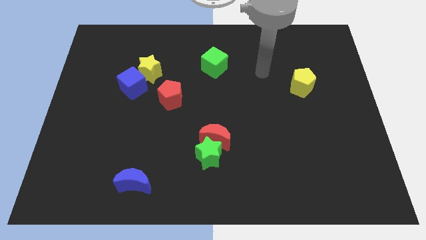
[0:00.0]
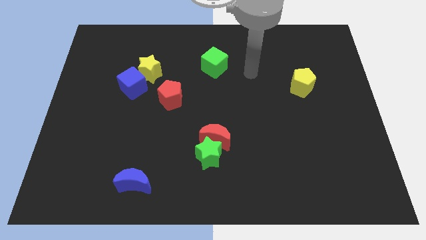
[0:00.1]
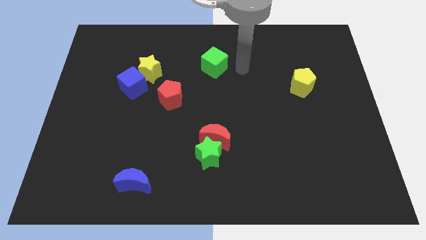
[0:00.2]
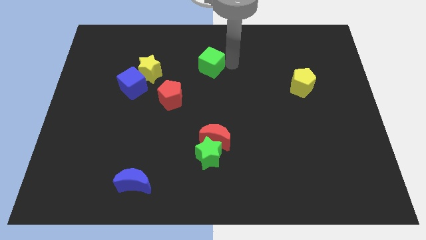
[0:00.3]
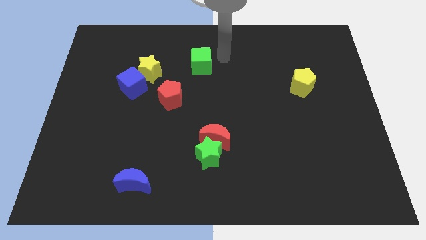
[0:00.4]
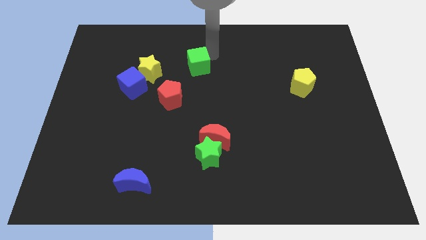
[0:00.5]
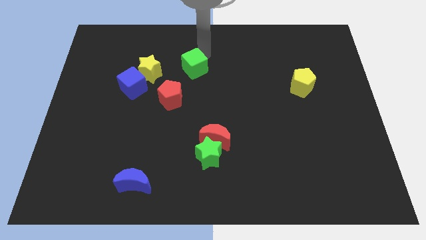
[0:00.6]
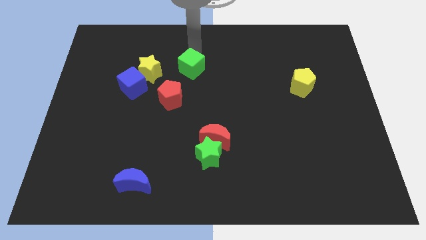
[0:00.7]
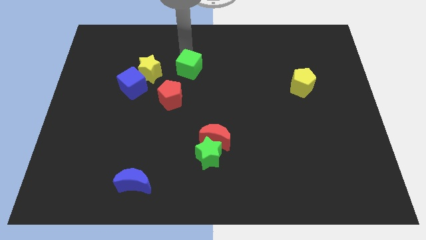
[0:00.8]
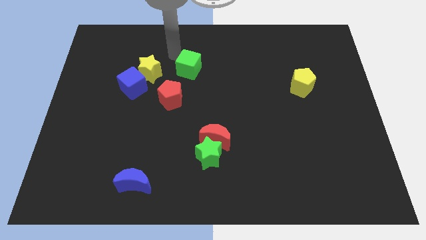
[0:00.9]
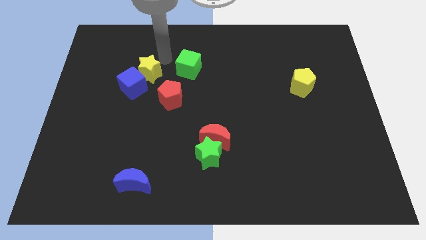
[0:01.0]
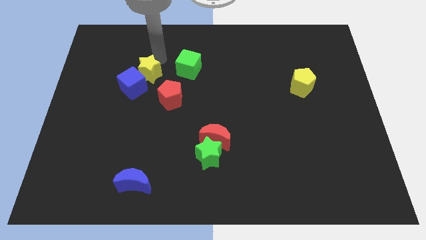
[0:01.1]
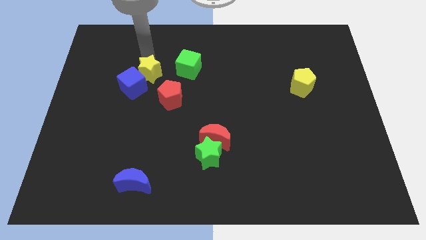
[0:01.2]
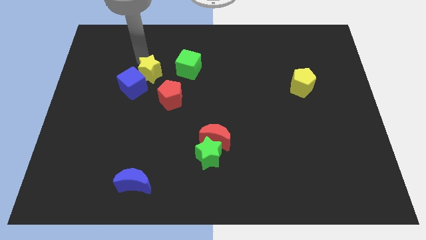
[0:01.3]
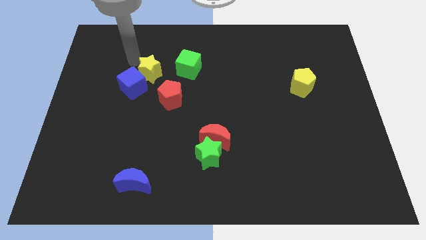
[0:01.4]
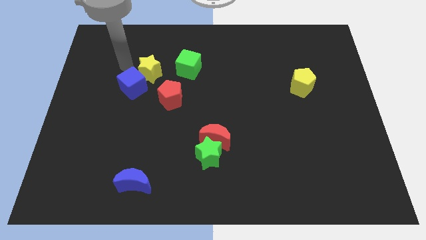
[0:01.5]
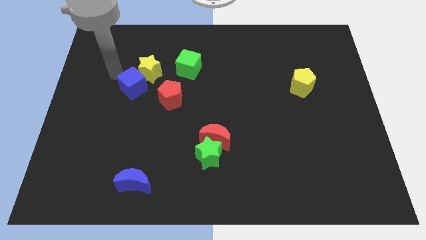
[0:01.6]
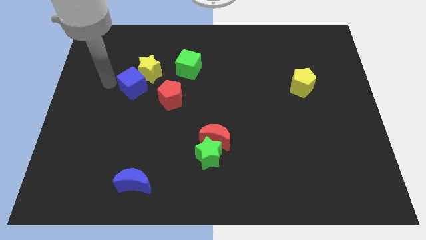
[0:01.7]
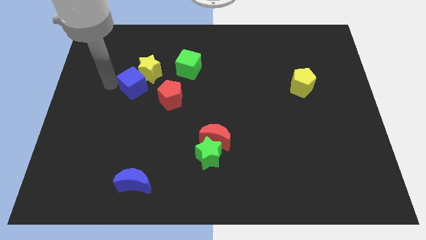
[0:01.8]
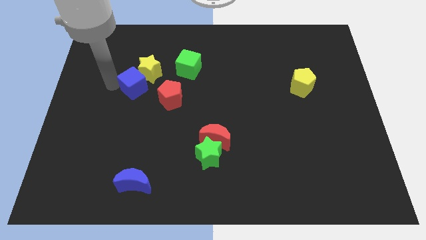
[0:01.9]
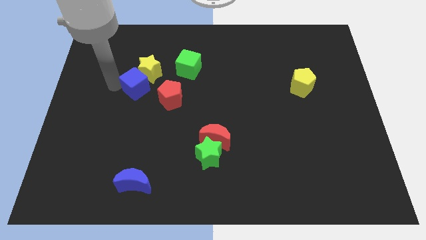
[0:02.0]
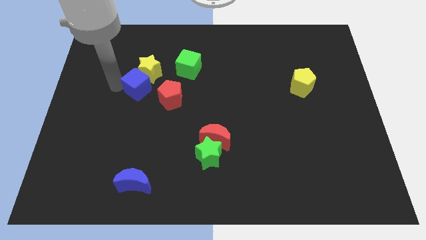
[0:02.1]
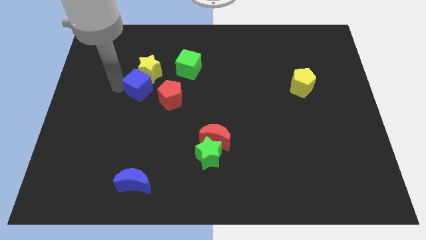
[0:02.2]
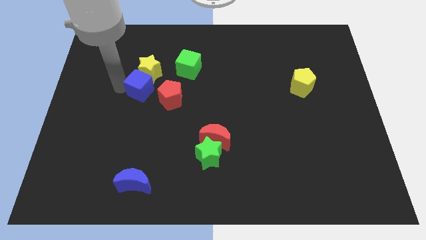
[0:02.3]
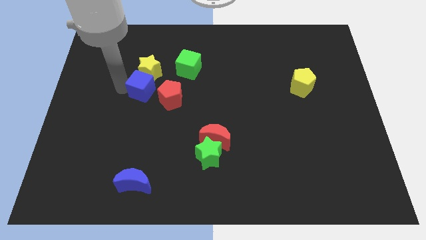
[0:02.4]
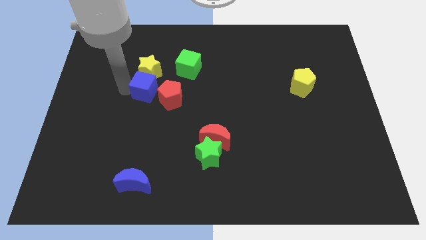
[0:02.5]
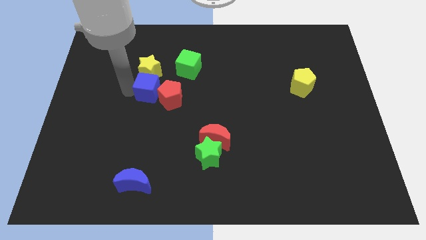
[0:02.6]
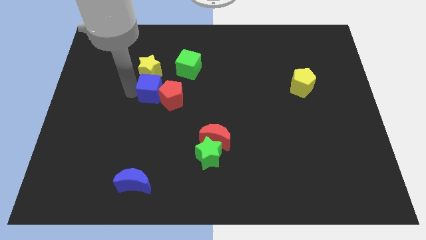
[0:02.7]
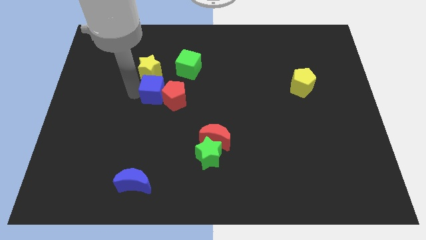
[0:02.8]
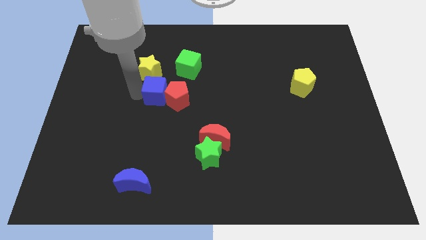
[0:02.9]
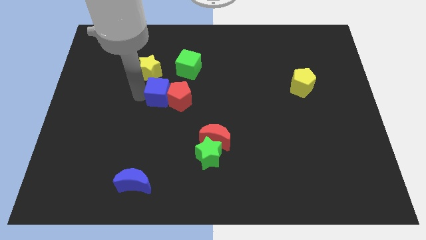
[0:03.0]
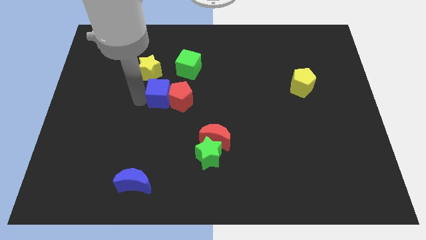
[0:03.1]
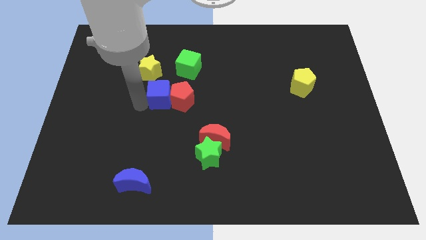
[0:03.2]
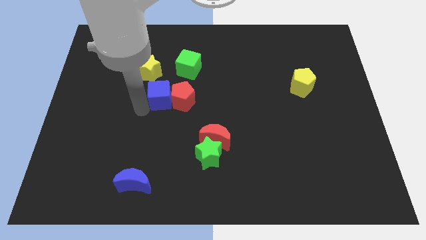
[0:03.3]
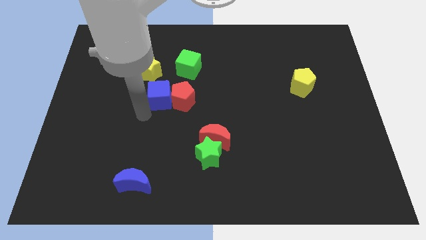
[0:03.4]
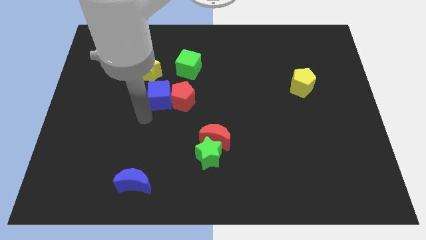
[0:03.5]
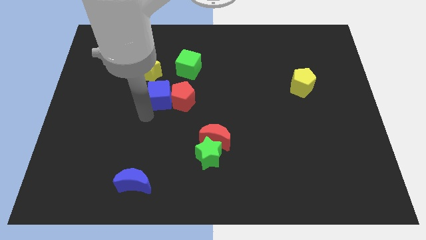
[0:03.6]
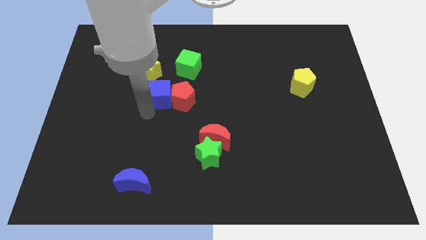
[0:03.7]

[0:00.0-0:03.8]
move the blue cube right a bit

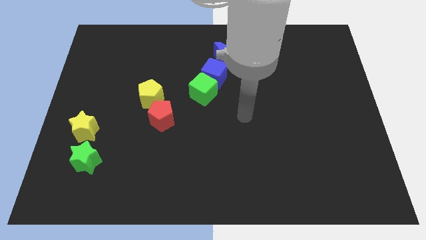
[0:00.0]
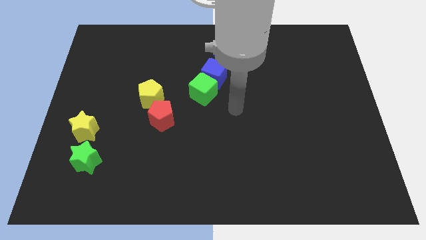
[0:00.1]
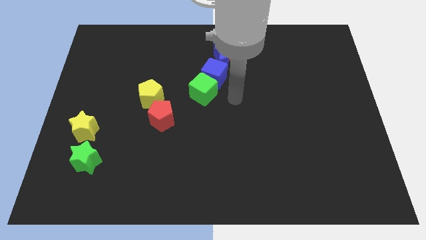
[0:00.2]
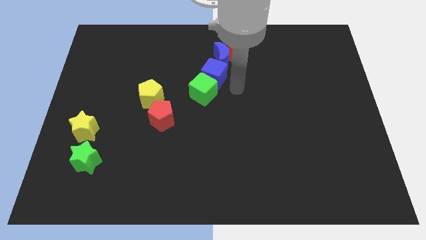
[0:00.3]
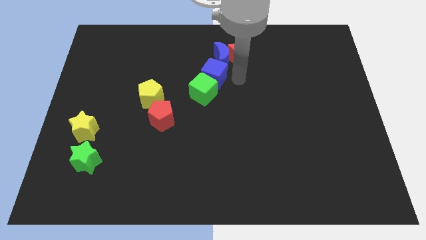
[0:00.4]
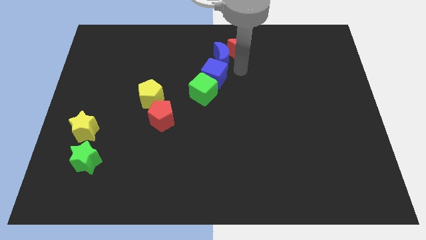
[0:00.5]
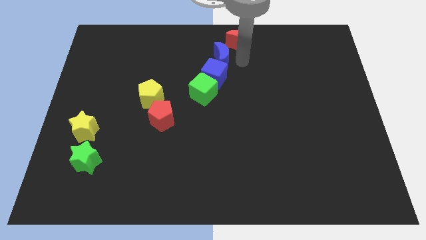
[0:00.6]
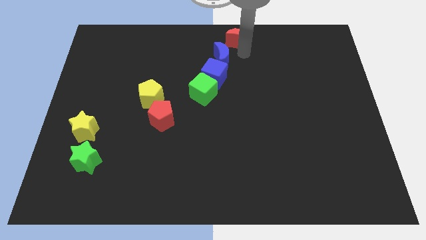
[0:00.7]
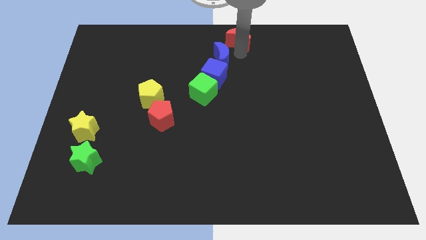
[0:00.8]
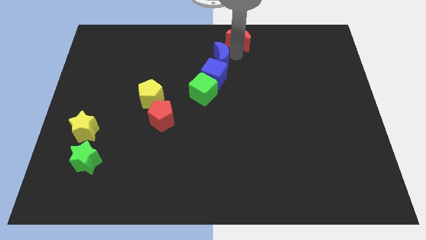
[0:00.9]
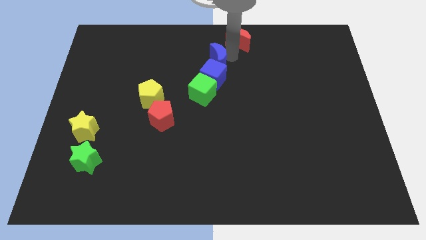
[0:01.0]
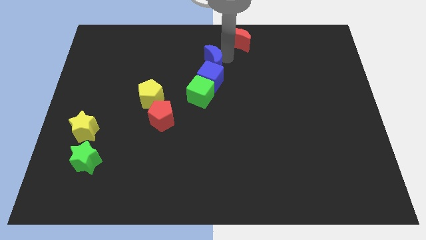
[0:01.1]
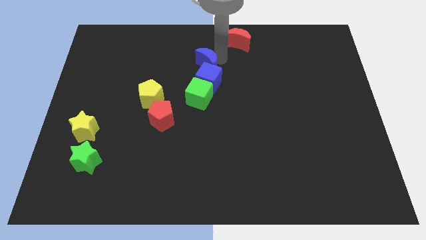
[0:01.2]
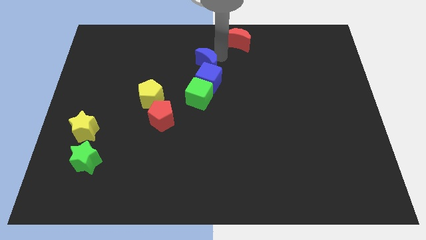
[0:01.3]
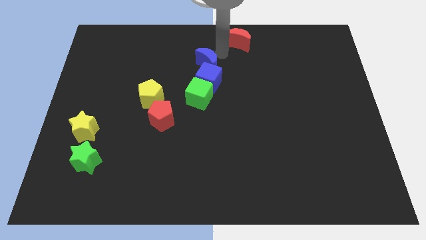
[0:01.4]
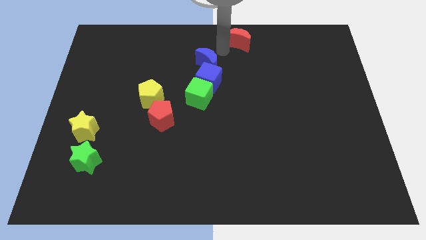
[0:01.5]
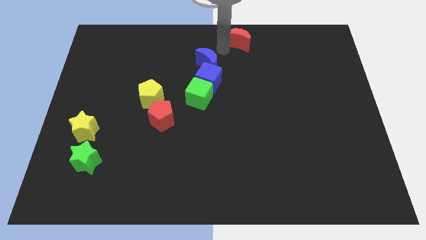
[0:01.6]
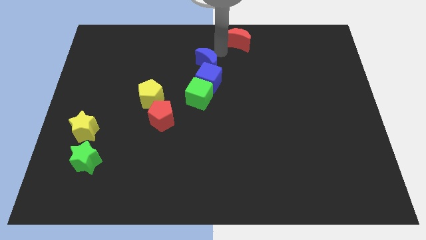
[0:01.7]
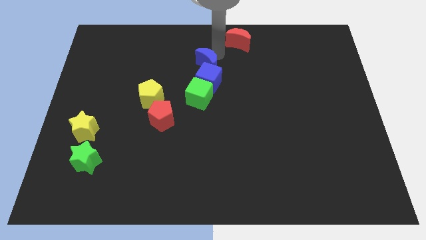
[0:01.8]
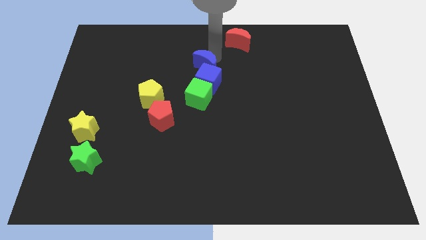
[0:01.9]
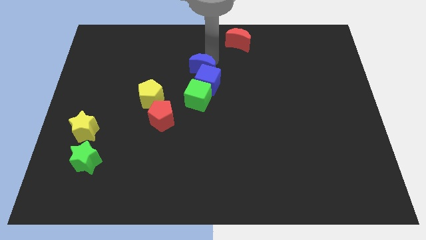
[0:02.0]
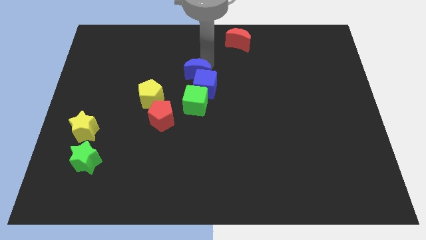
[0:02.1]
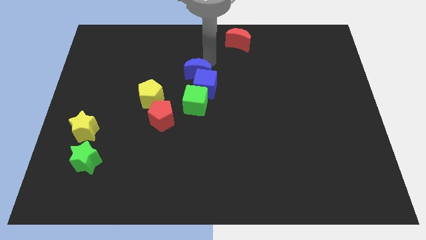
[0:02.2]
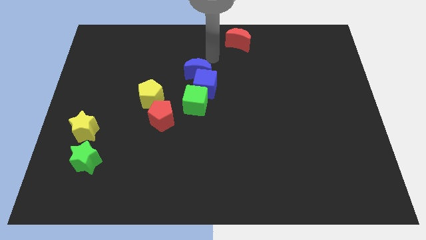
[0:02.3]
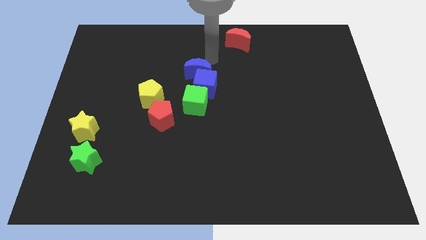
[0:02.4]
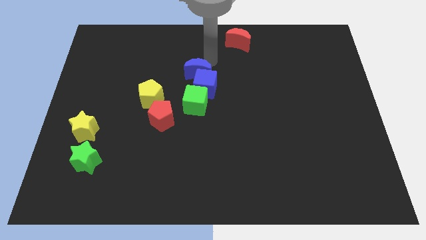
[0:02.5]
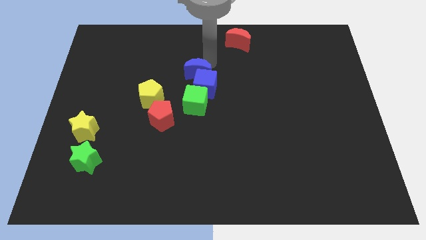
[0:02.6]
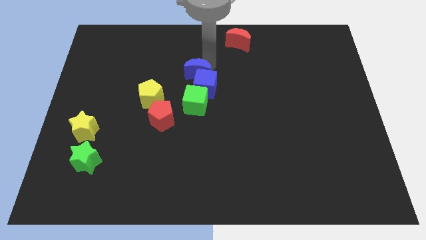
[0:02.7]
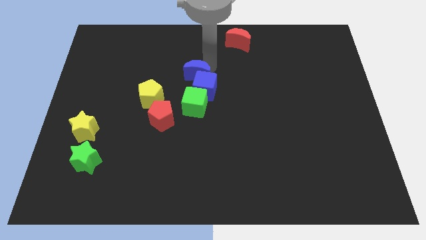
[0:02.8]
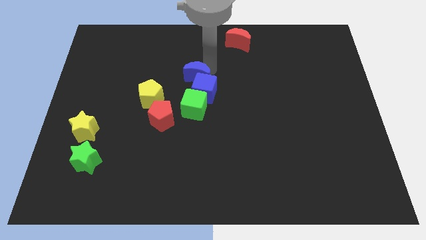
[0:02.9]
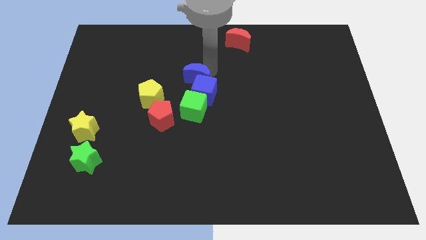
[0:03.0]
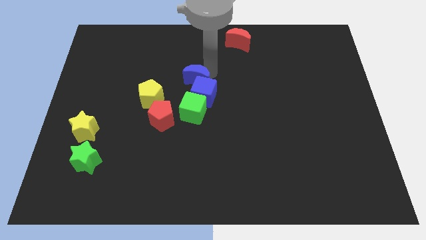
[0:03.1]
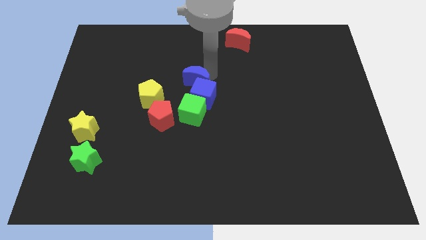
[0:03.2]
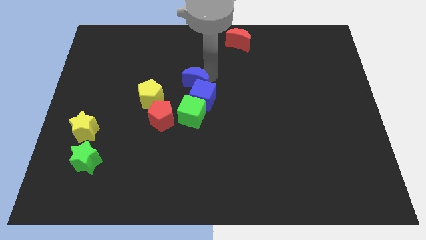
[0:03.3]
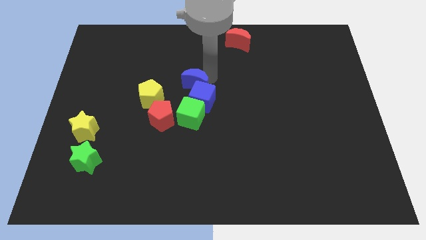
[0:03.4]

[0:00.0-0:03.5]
slide the blue moon a bit down

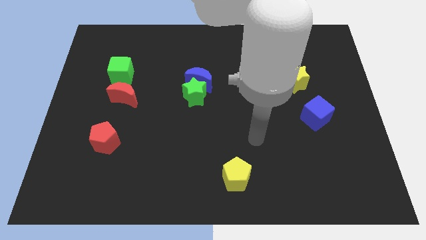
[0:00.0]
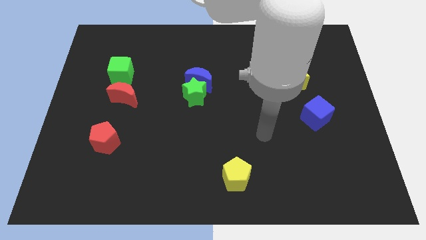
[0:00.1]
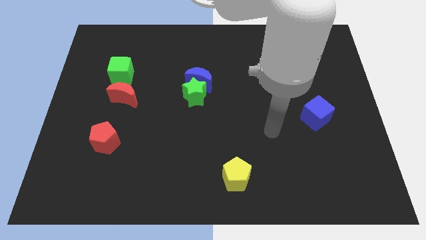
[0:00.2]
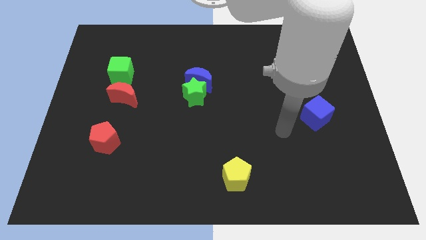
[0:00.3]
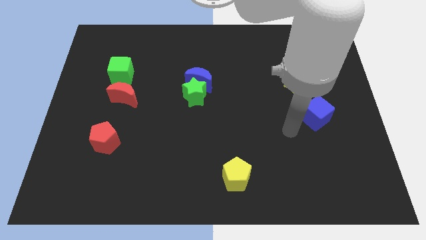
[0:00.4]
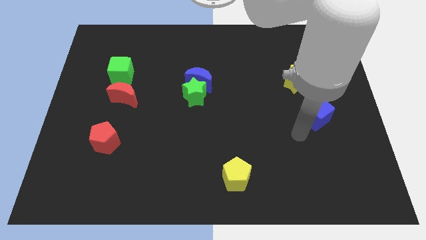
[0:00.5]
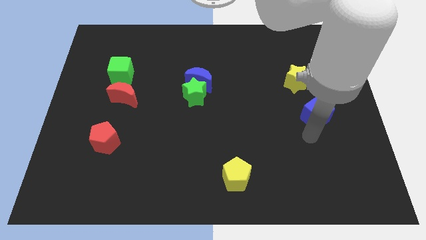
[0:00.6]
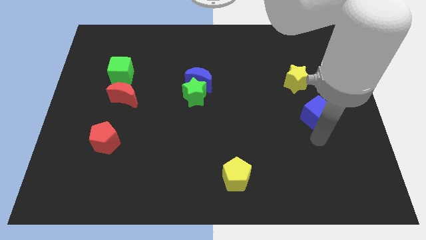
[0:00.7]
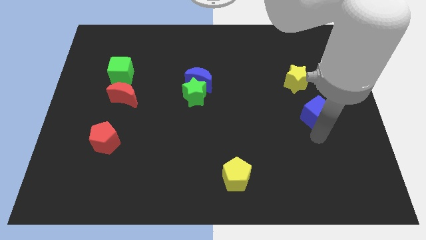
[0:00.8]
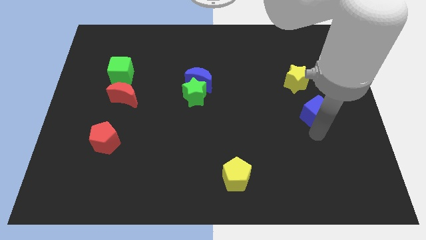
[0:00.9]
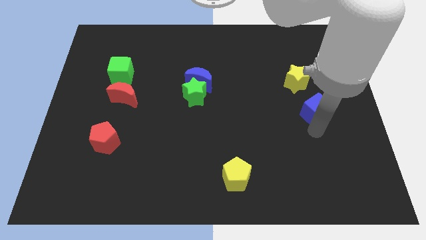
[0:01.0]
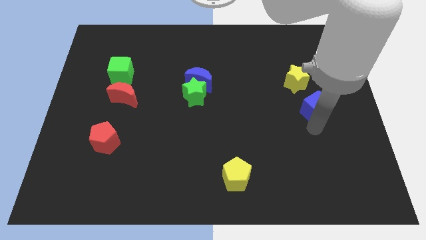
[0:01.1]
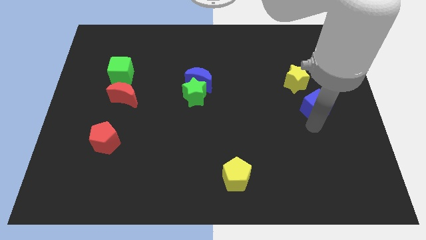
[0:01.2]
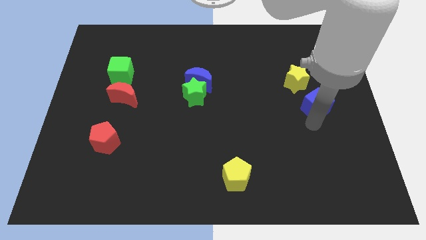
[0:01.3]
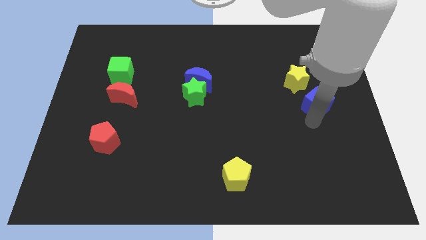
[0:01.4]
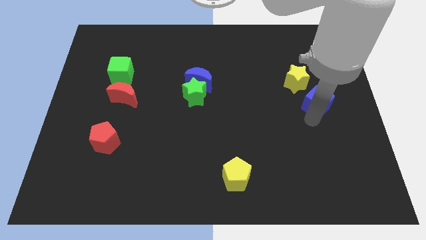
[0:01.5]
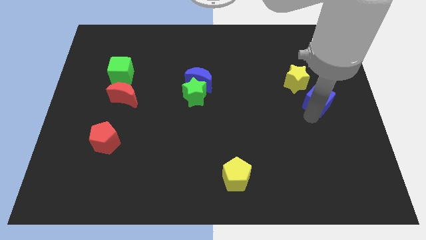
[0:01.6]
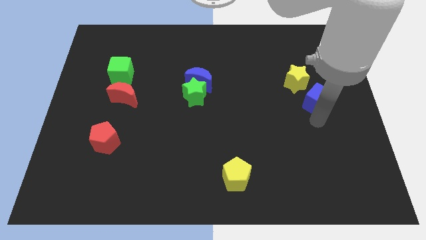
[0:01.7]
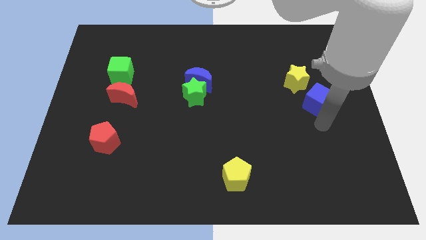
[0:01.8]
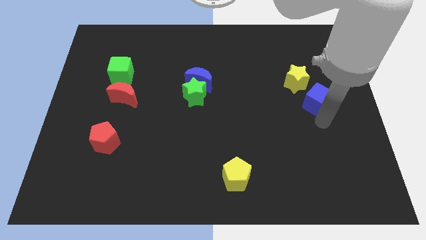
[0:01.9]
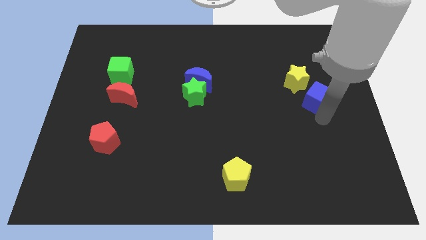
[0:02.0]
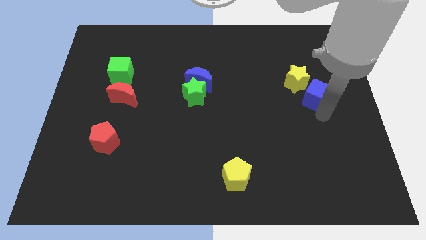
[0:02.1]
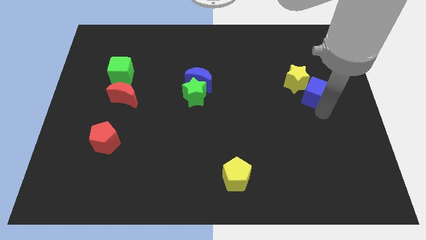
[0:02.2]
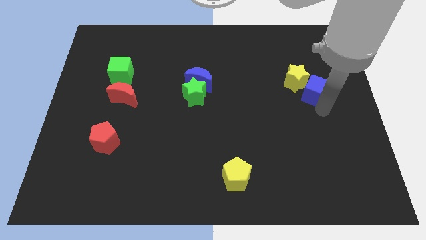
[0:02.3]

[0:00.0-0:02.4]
move the blue cube upwards slightly
